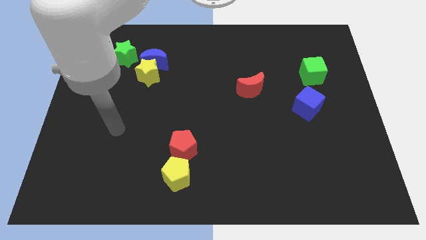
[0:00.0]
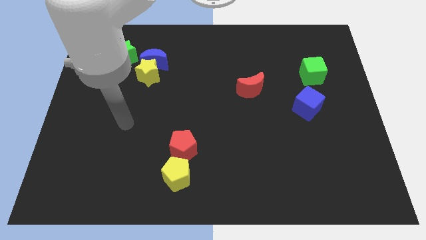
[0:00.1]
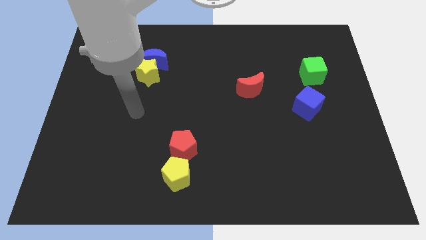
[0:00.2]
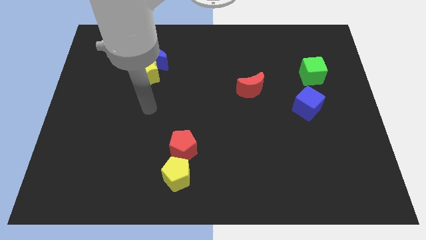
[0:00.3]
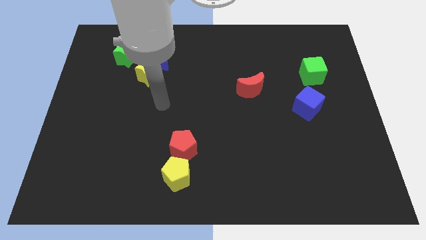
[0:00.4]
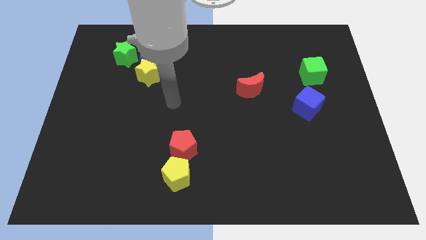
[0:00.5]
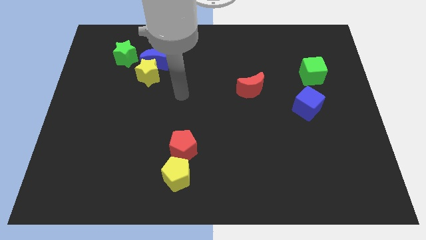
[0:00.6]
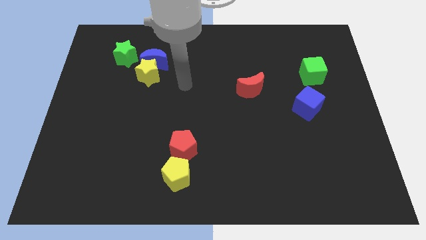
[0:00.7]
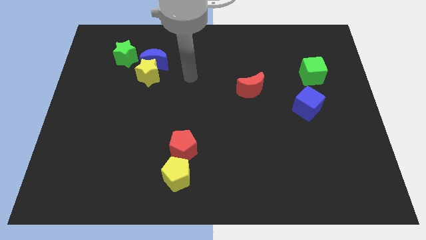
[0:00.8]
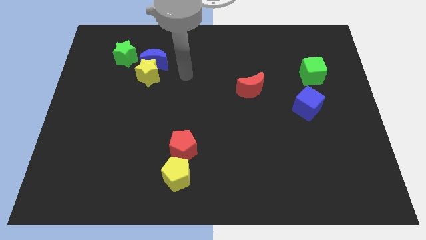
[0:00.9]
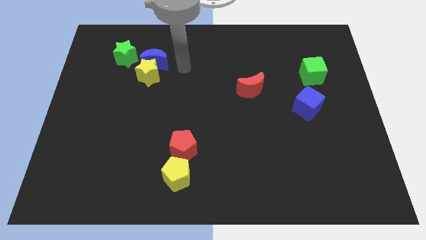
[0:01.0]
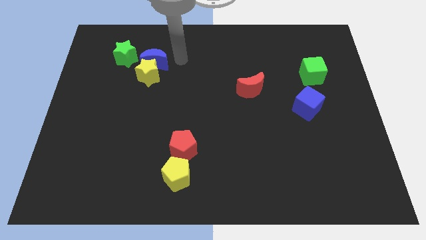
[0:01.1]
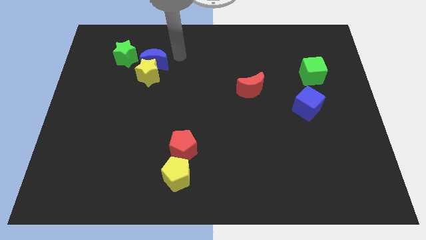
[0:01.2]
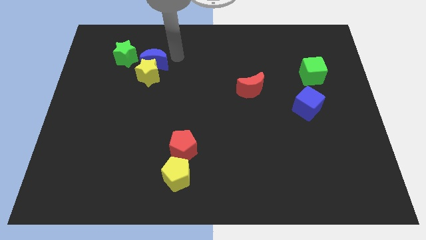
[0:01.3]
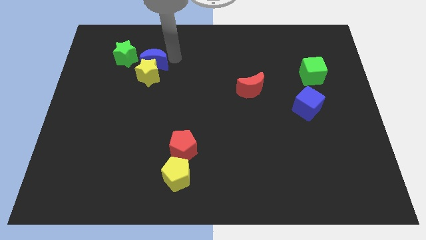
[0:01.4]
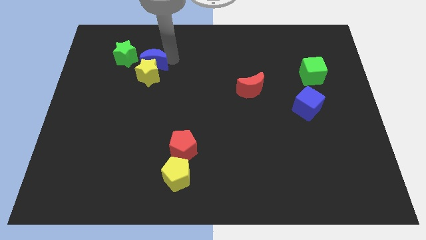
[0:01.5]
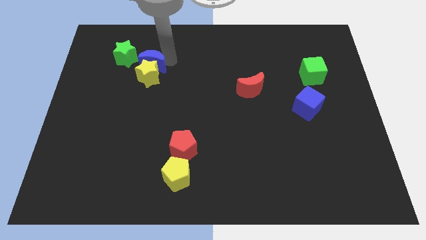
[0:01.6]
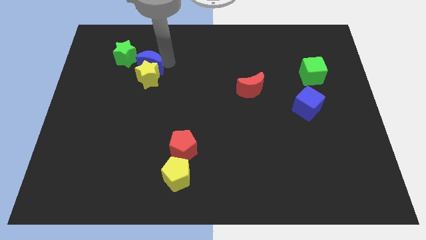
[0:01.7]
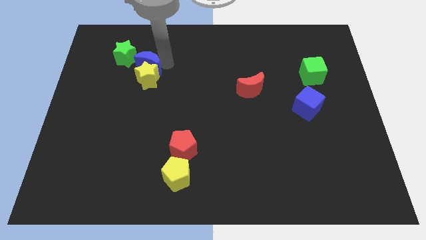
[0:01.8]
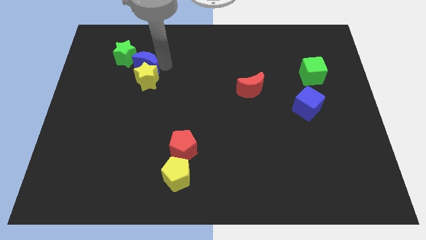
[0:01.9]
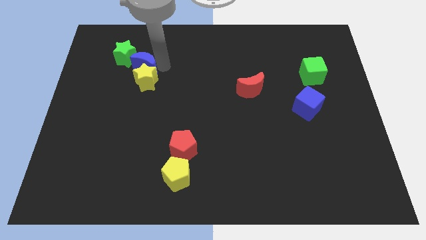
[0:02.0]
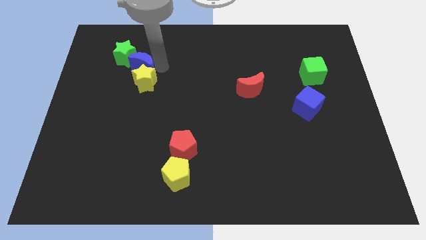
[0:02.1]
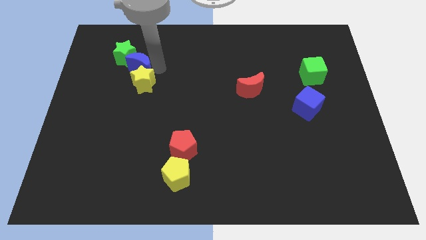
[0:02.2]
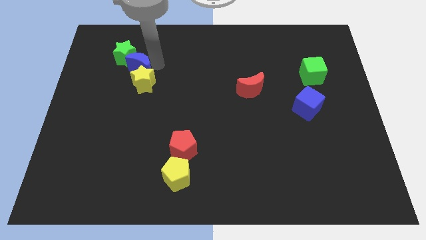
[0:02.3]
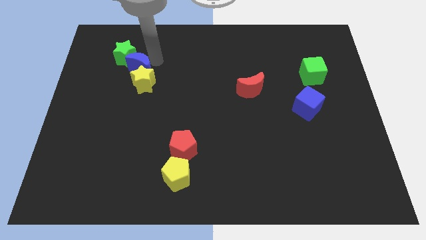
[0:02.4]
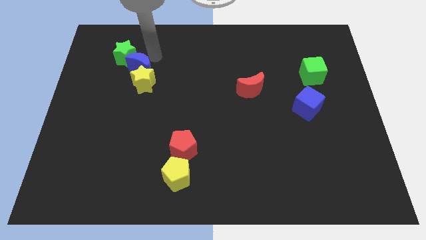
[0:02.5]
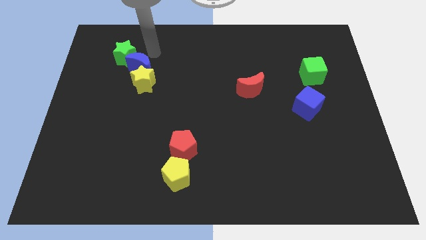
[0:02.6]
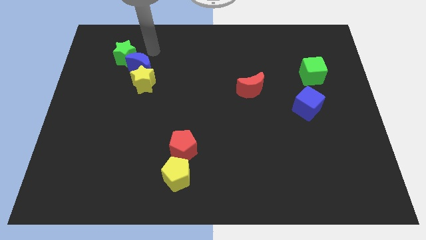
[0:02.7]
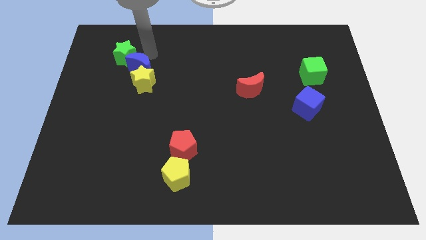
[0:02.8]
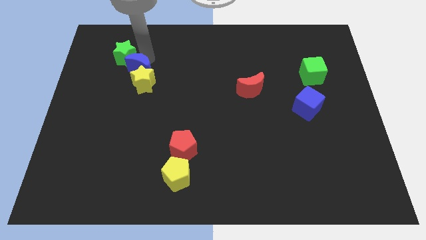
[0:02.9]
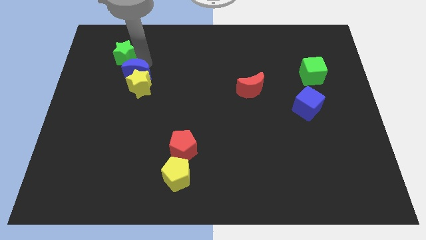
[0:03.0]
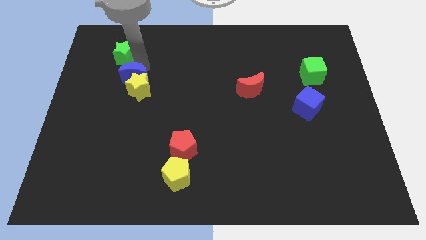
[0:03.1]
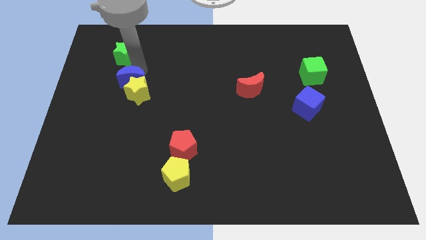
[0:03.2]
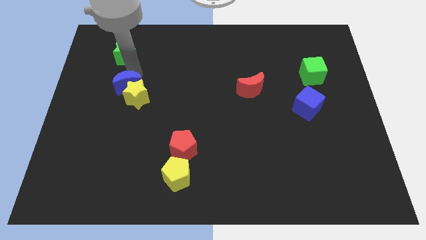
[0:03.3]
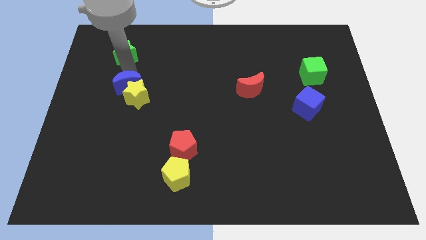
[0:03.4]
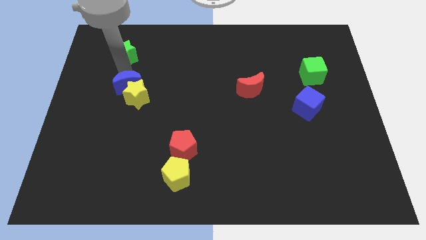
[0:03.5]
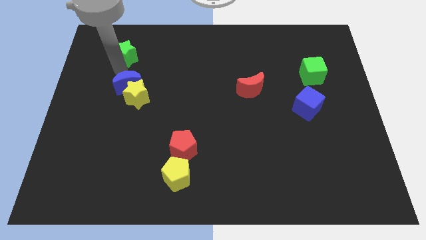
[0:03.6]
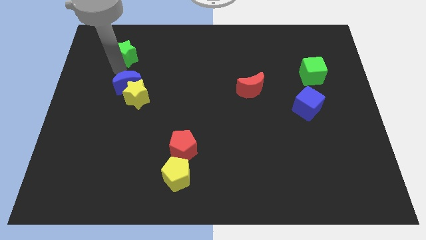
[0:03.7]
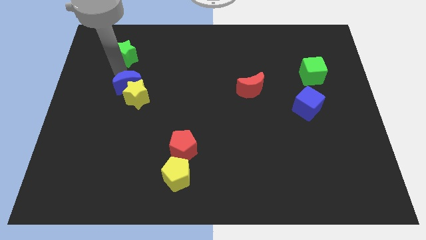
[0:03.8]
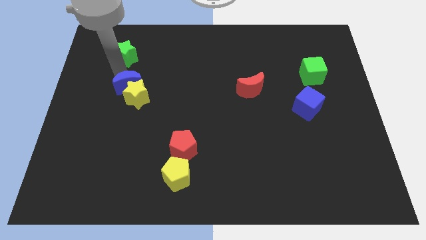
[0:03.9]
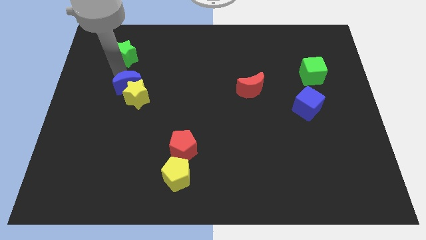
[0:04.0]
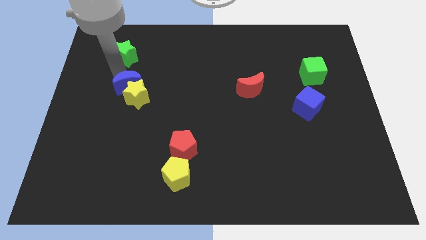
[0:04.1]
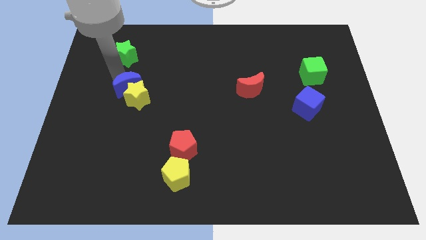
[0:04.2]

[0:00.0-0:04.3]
move the blue moon a little bit downwards

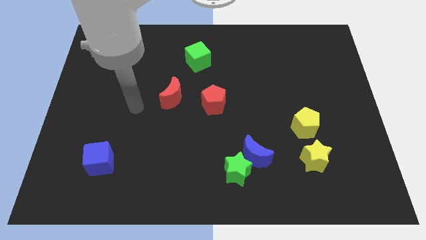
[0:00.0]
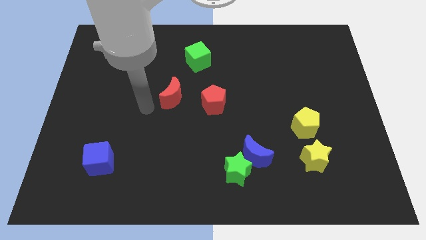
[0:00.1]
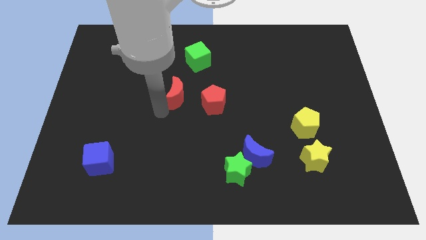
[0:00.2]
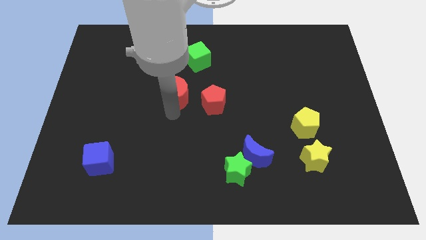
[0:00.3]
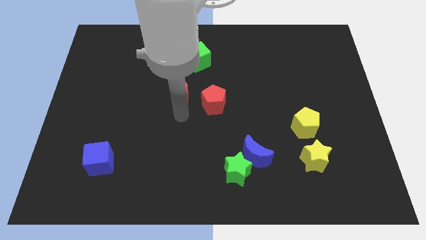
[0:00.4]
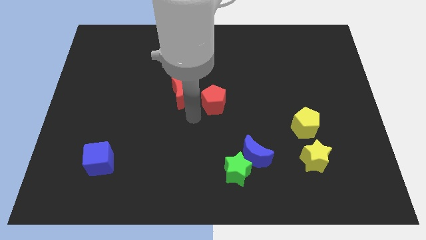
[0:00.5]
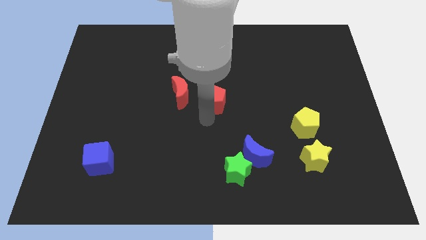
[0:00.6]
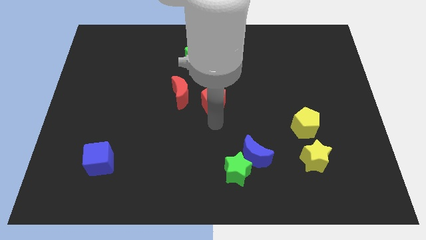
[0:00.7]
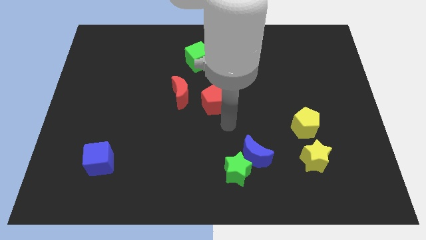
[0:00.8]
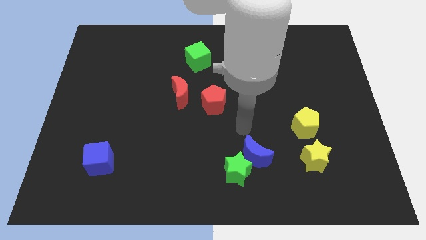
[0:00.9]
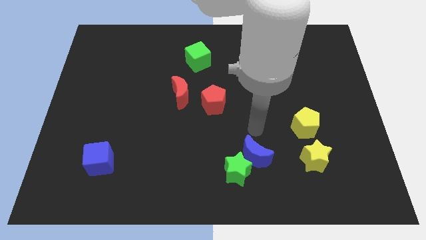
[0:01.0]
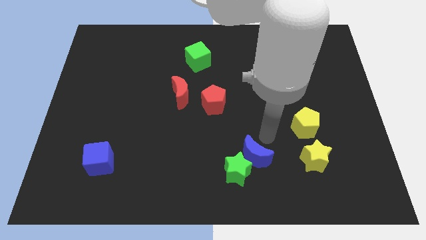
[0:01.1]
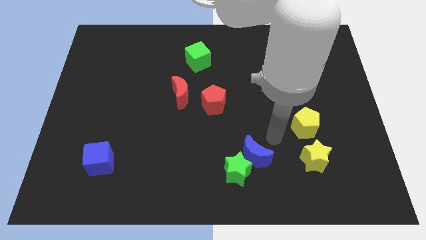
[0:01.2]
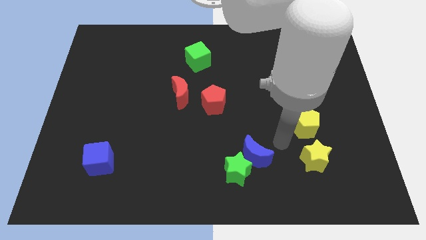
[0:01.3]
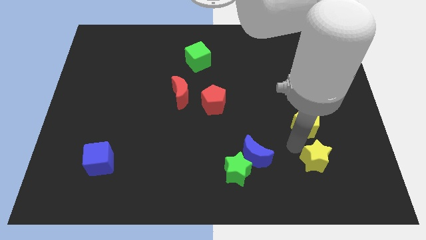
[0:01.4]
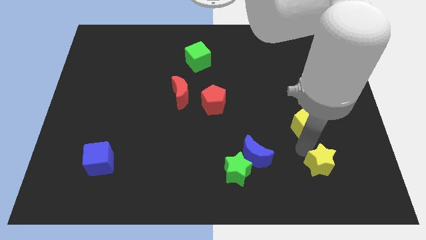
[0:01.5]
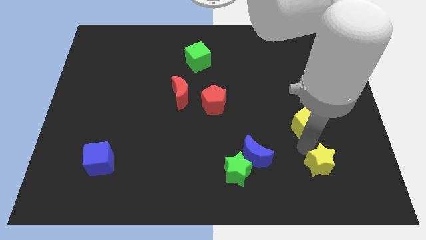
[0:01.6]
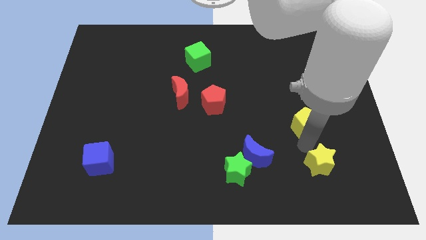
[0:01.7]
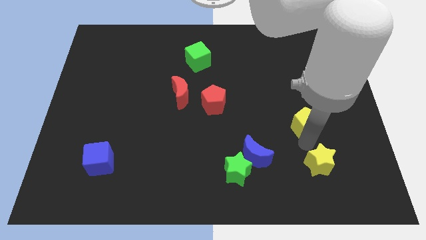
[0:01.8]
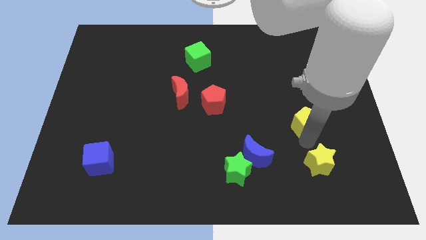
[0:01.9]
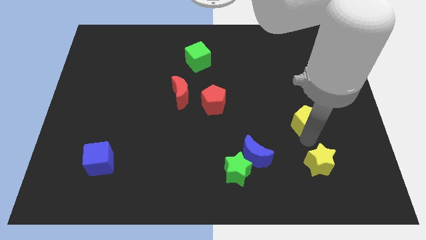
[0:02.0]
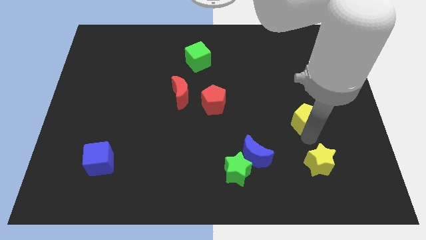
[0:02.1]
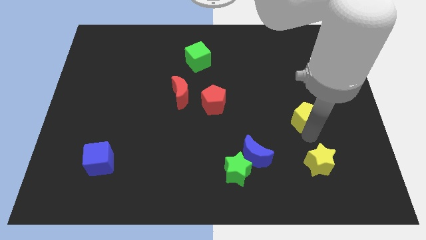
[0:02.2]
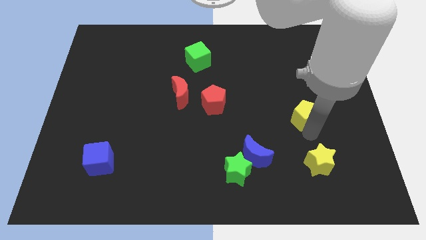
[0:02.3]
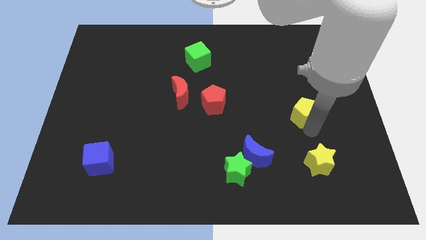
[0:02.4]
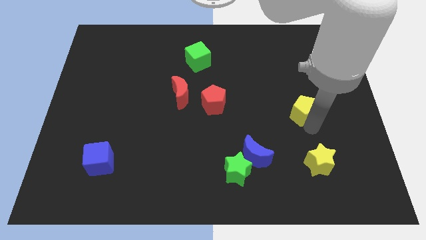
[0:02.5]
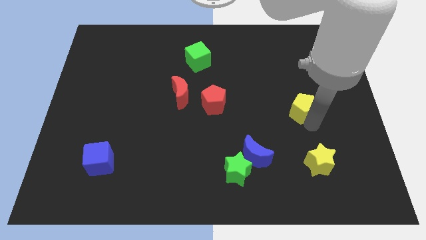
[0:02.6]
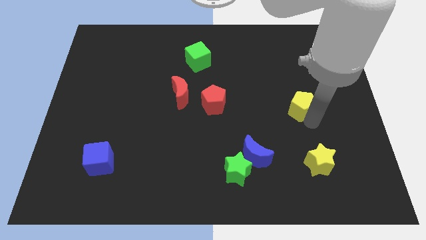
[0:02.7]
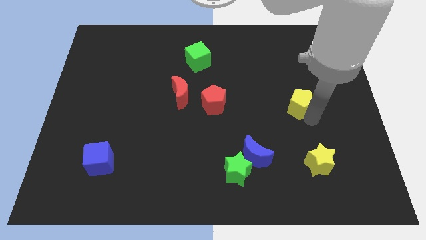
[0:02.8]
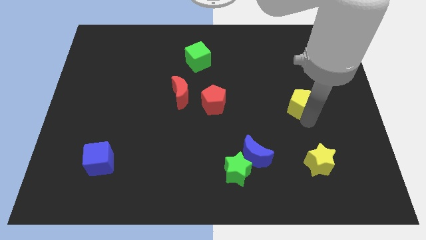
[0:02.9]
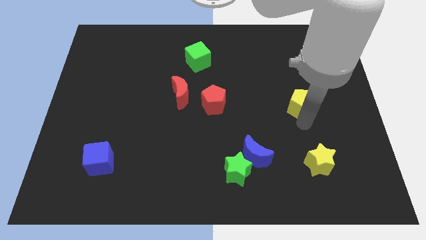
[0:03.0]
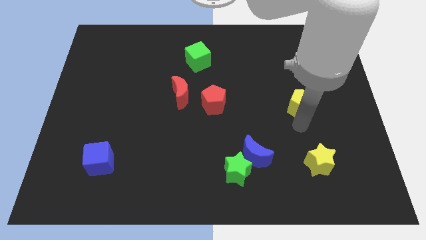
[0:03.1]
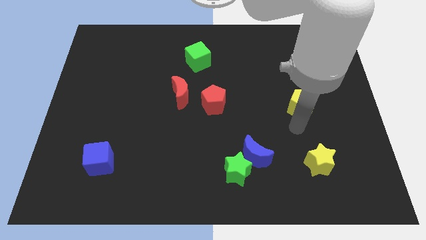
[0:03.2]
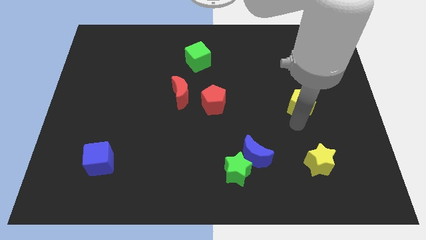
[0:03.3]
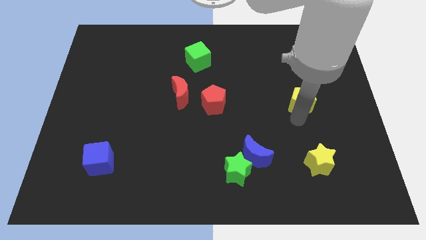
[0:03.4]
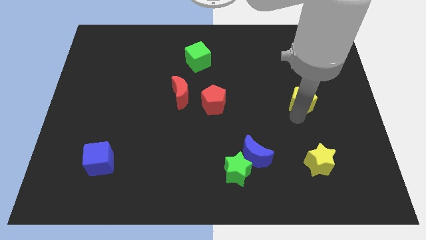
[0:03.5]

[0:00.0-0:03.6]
slightly move the yellow pentagon up

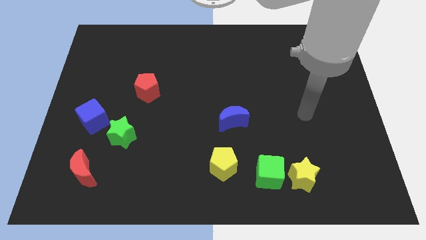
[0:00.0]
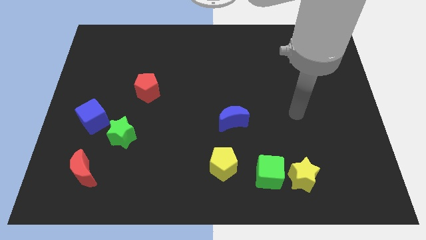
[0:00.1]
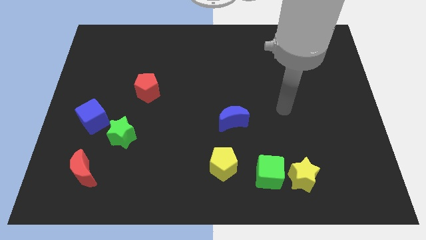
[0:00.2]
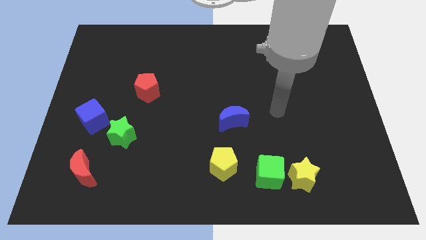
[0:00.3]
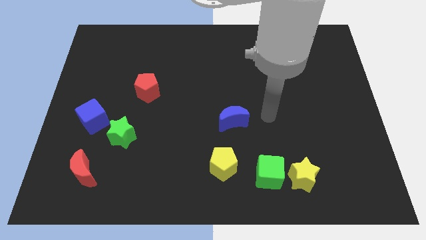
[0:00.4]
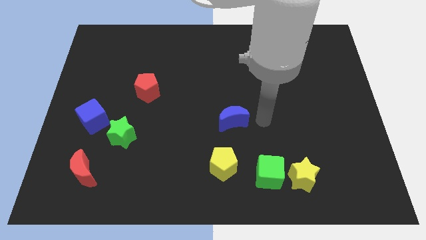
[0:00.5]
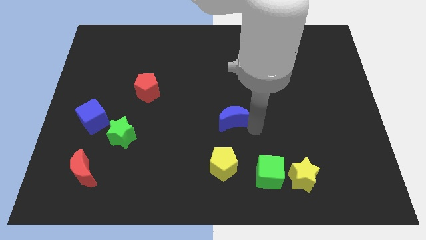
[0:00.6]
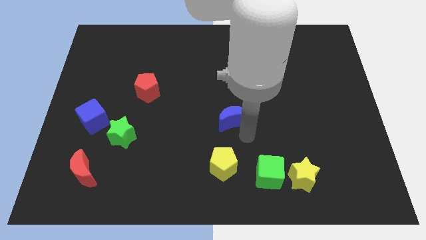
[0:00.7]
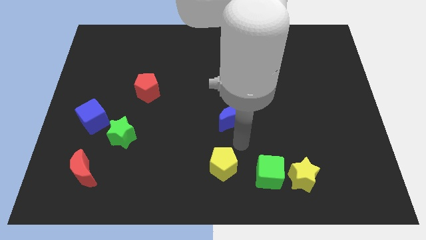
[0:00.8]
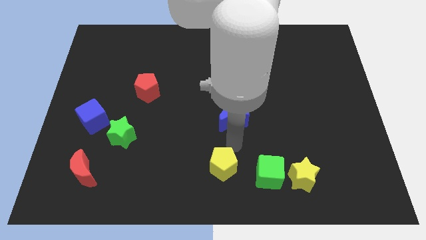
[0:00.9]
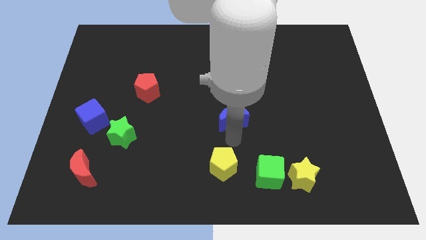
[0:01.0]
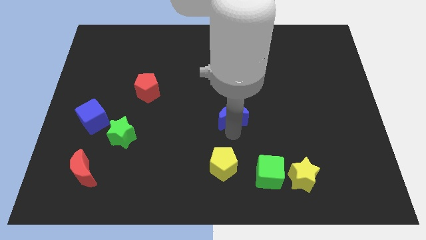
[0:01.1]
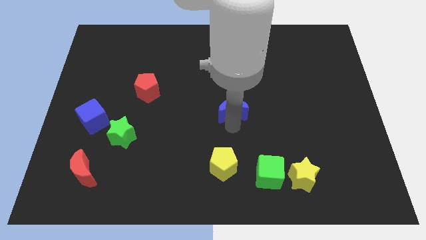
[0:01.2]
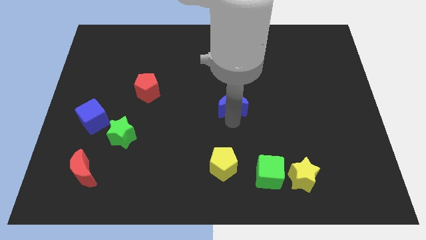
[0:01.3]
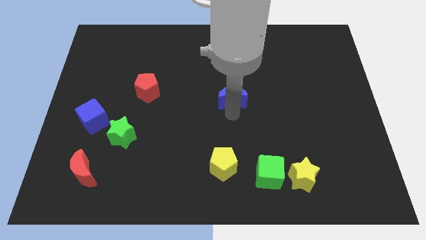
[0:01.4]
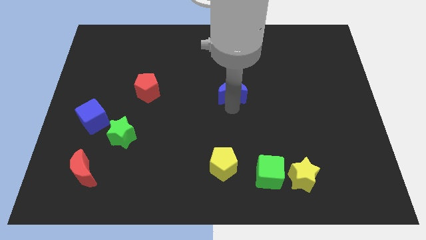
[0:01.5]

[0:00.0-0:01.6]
slightly move the blue moon upwards
